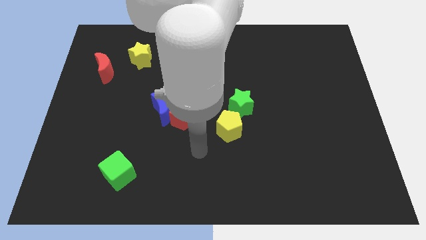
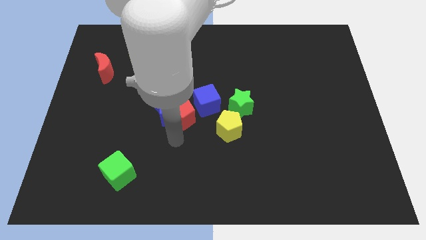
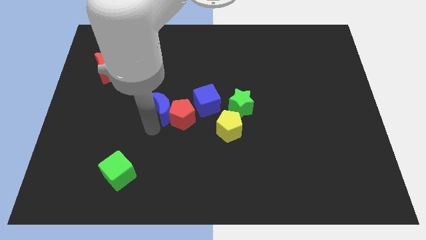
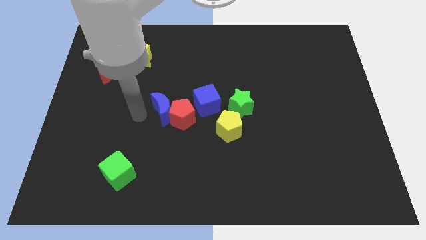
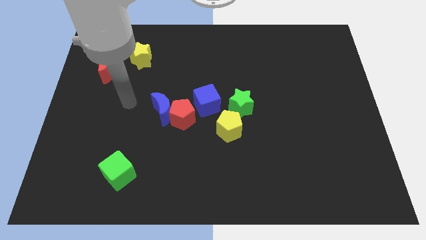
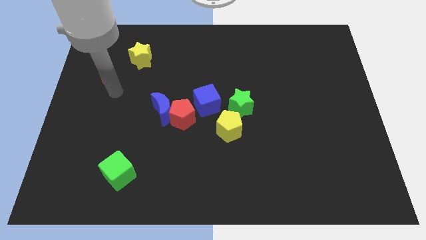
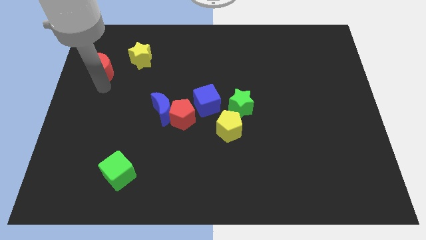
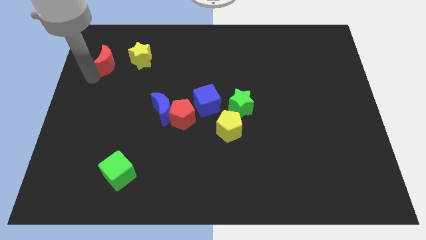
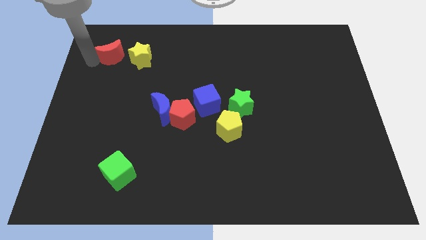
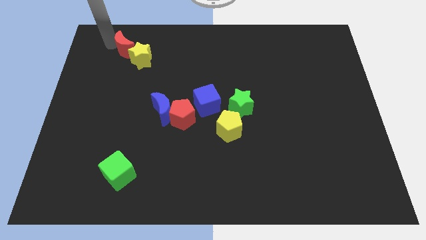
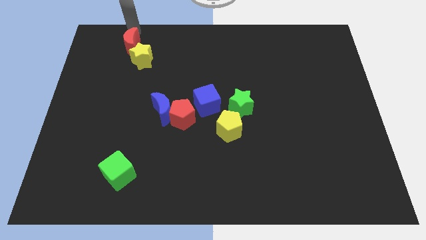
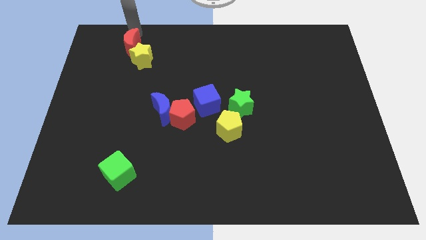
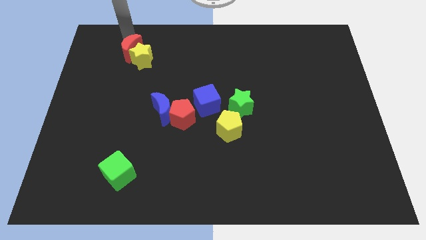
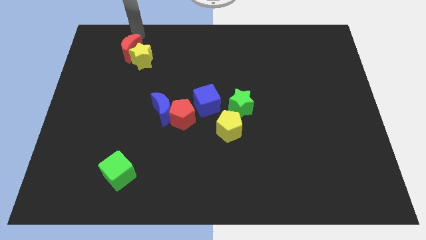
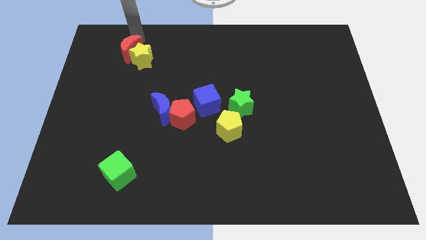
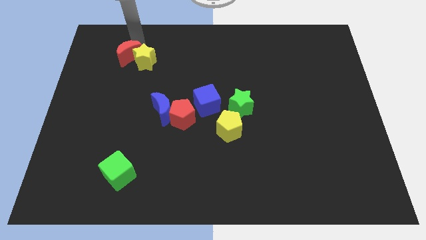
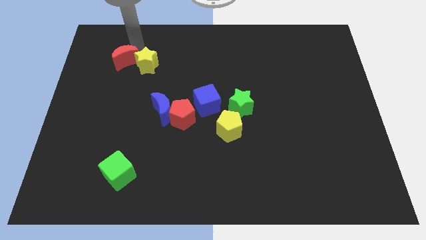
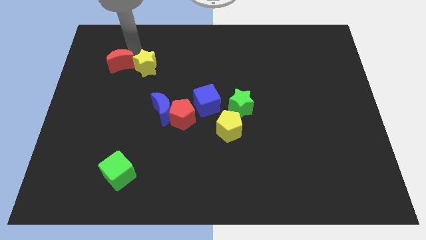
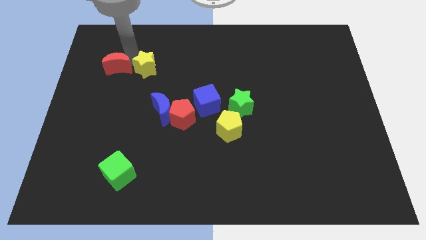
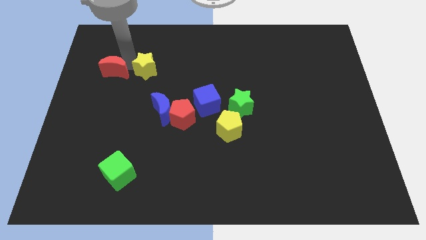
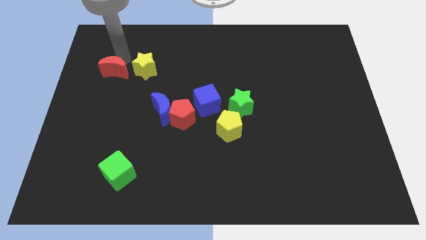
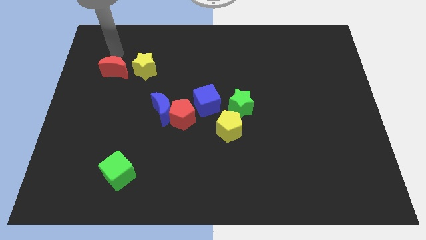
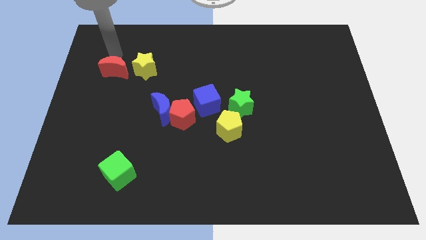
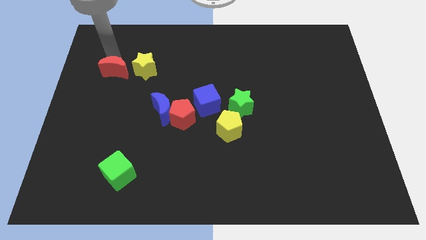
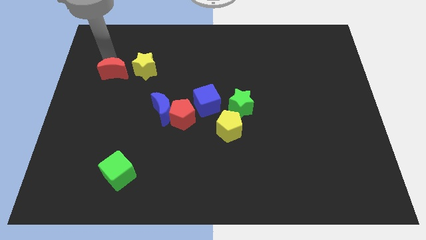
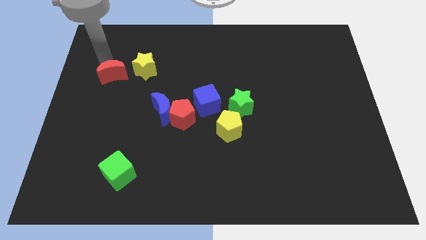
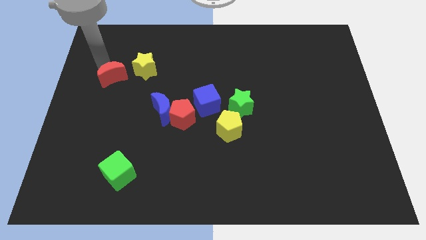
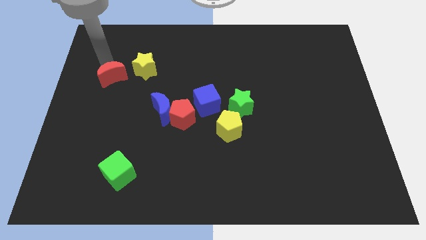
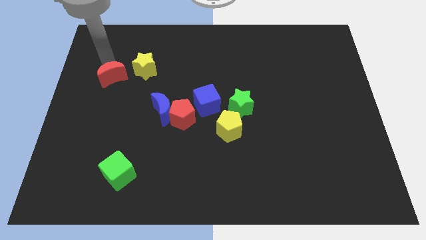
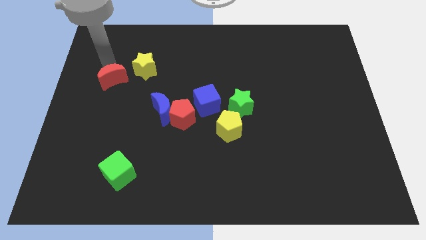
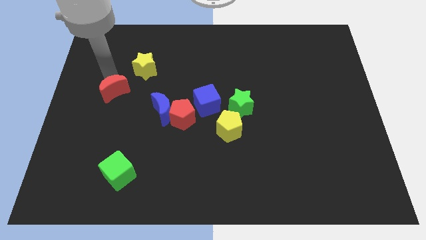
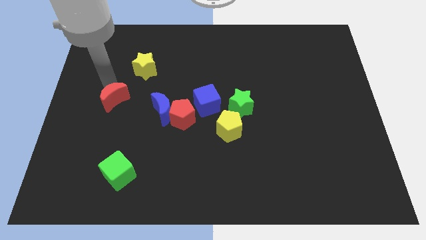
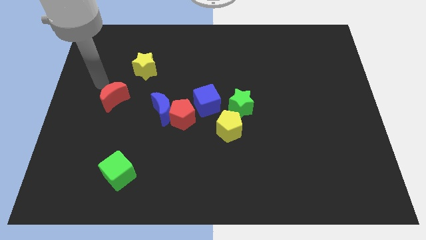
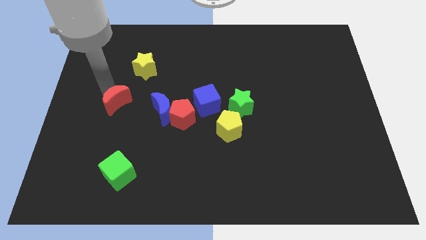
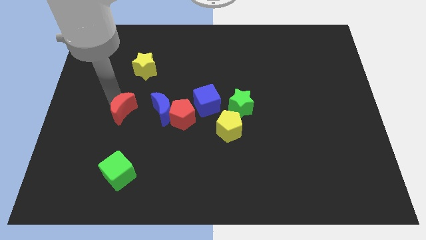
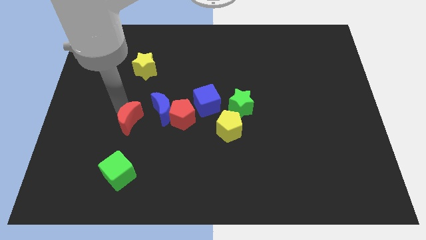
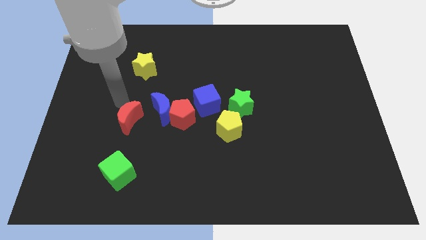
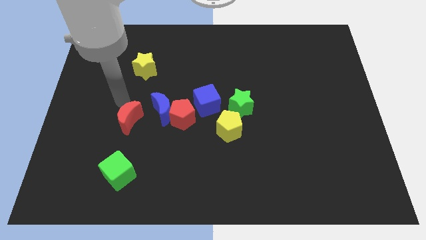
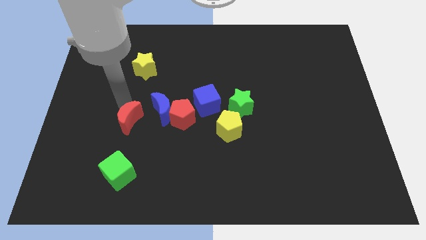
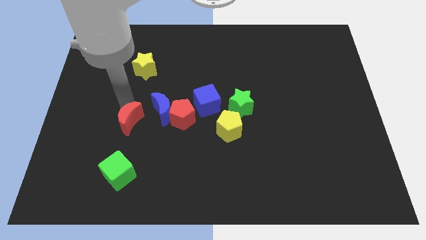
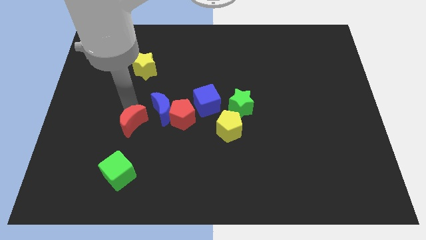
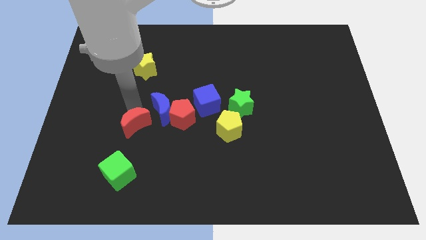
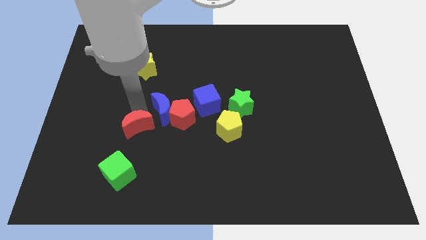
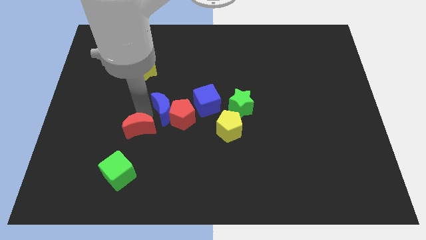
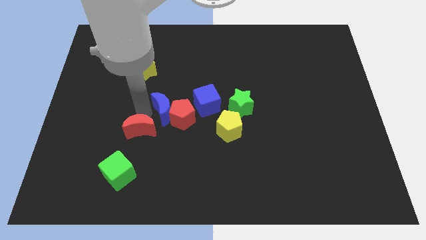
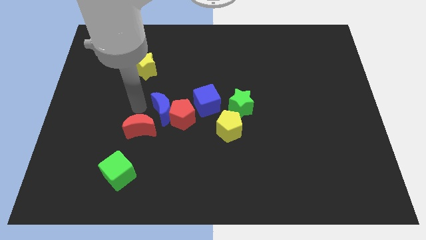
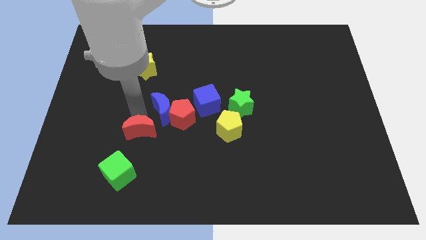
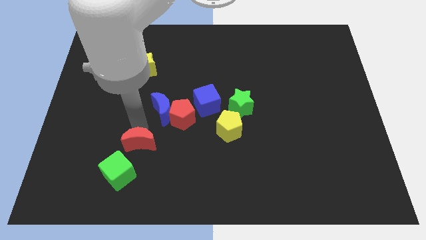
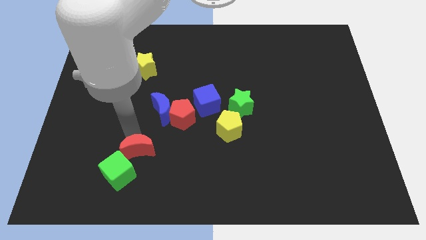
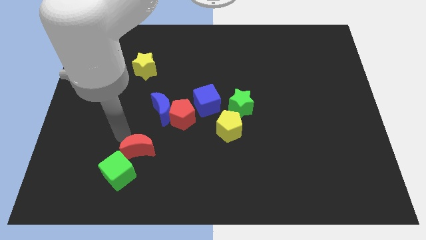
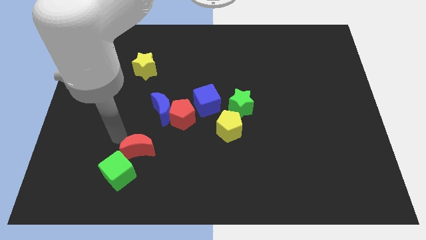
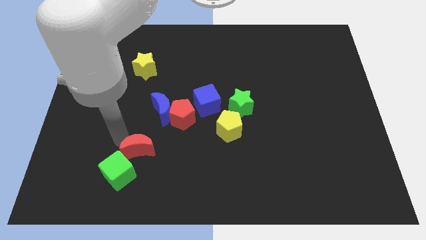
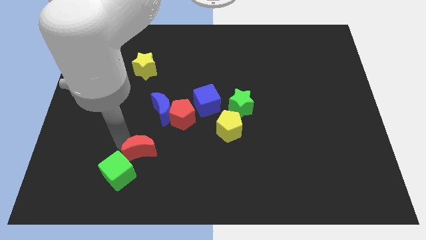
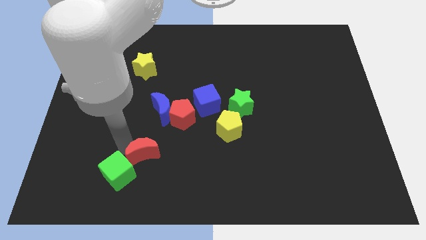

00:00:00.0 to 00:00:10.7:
move the red moon right of the green cube

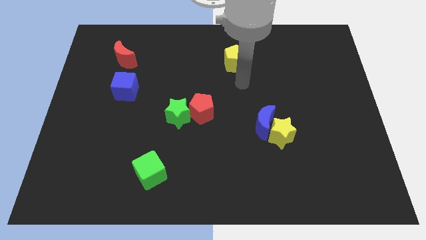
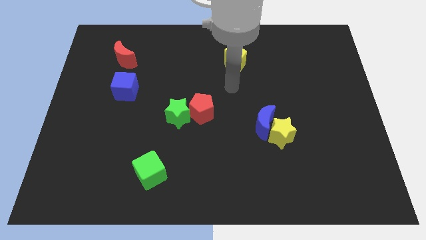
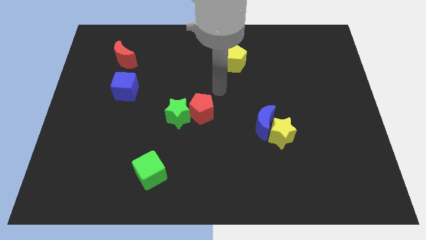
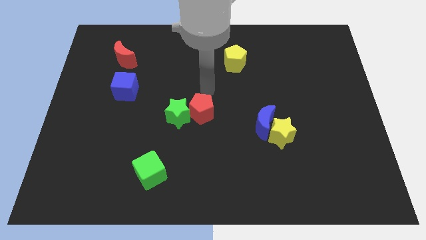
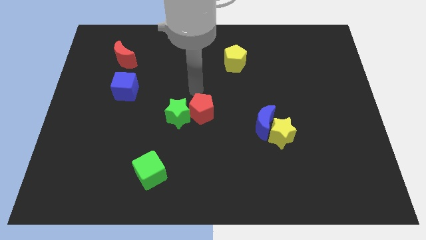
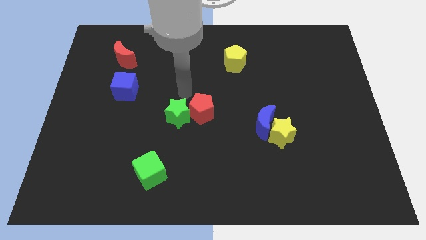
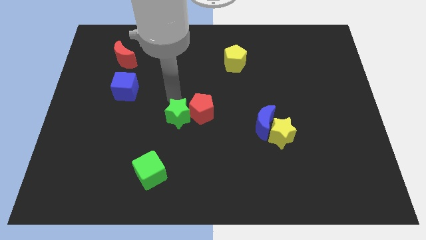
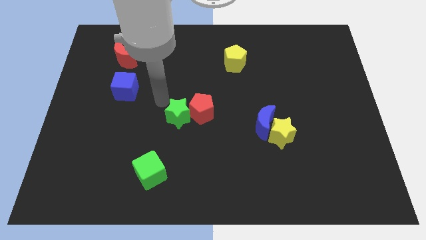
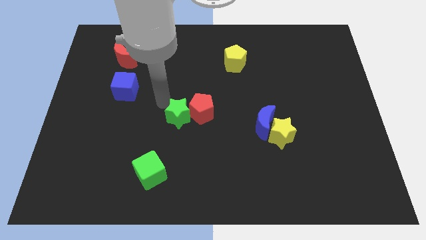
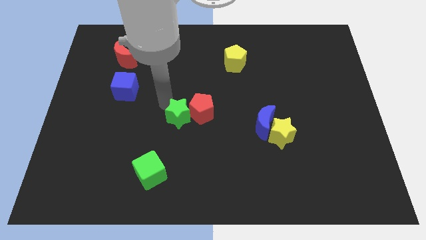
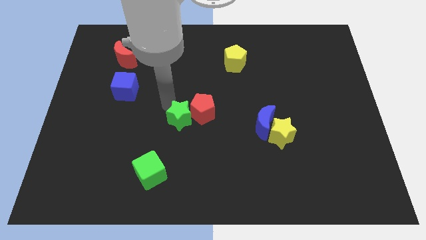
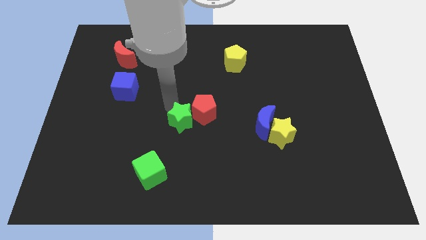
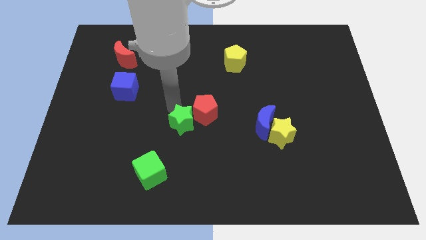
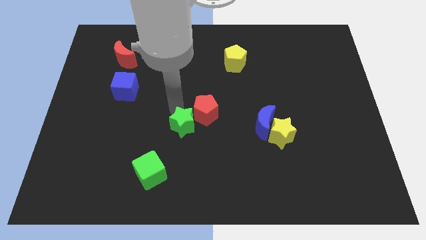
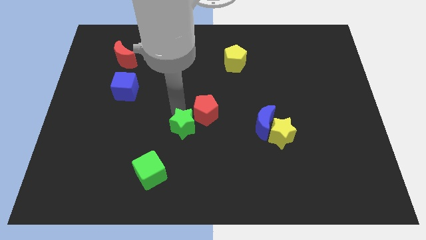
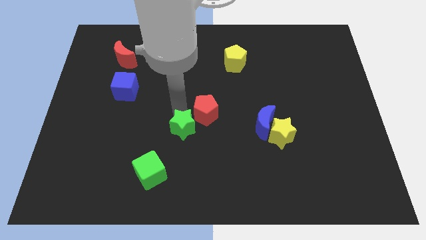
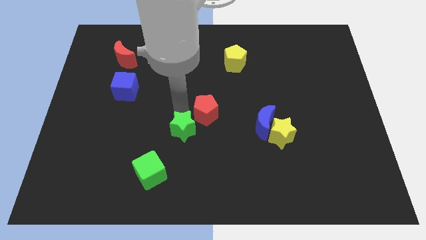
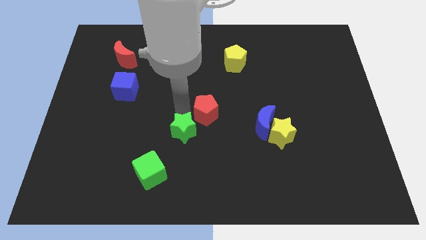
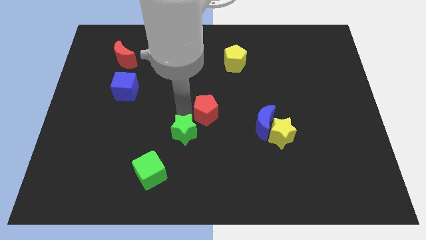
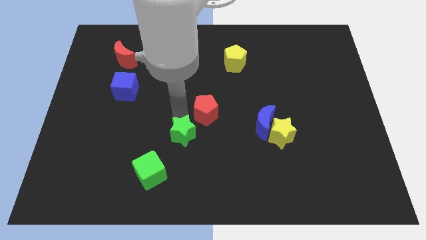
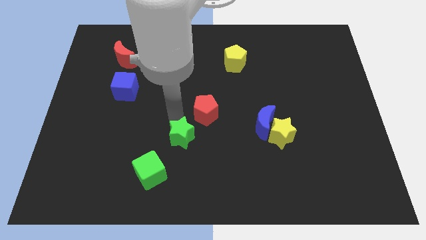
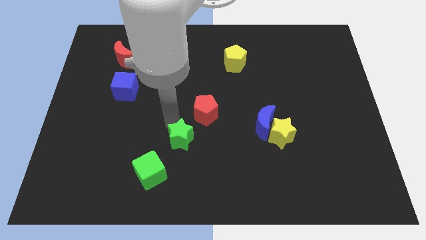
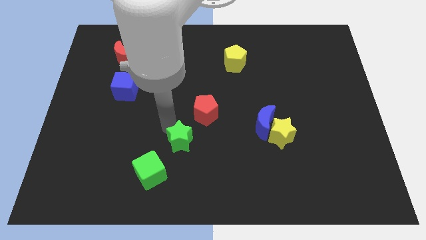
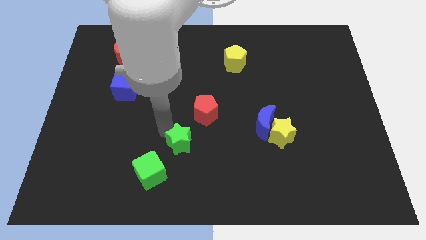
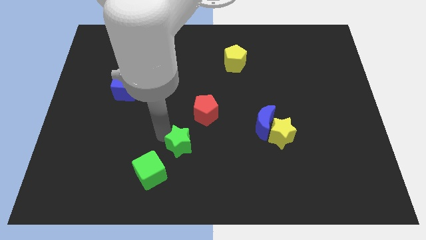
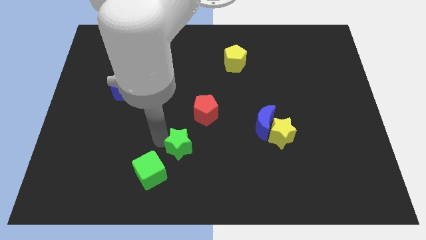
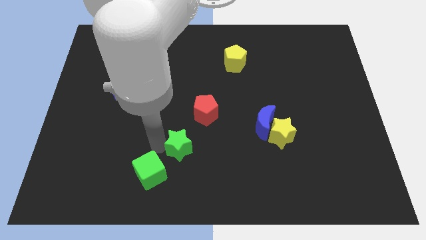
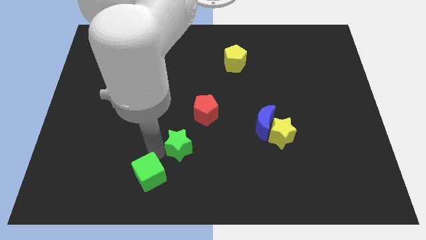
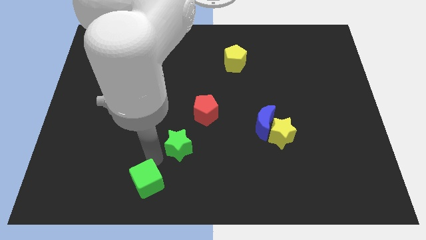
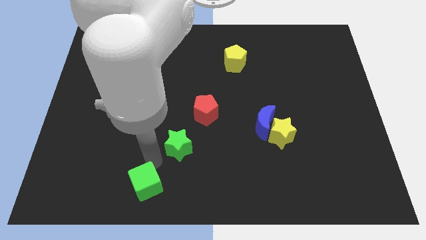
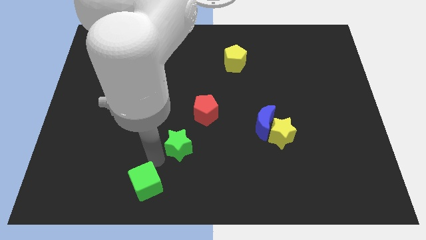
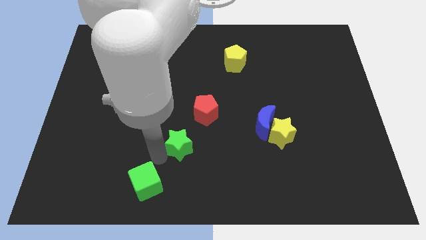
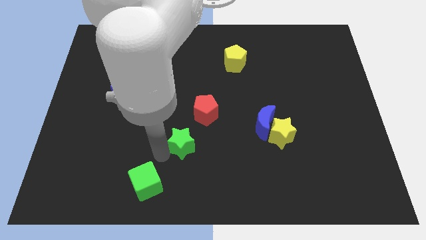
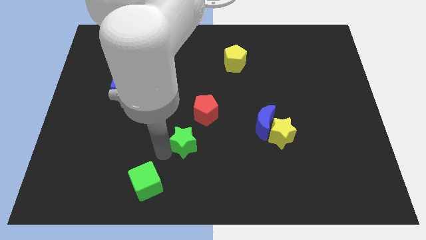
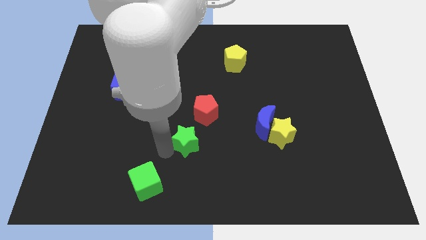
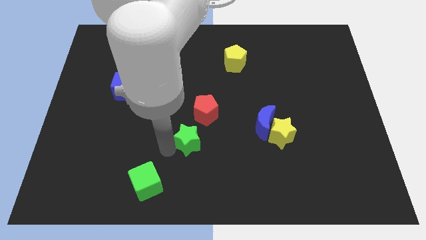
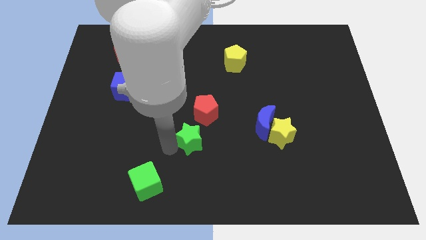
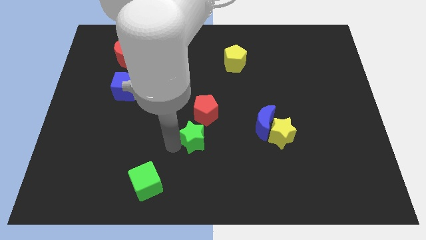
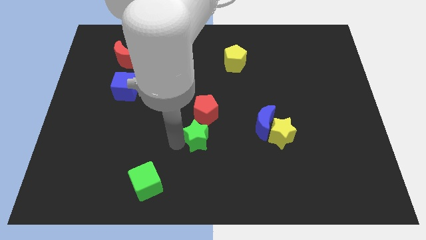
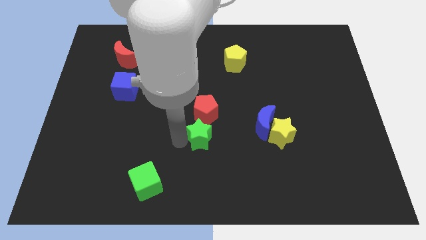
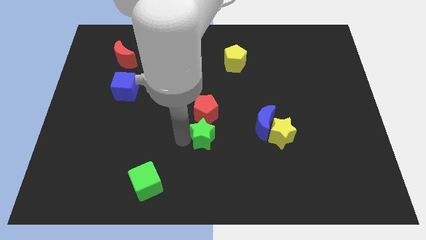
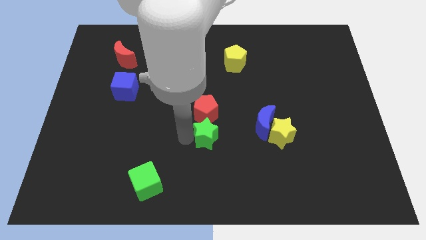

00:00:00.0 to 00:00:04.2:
move the green star diagonally down and to the right of the red pentagon
